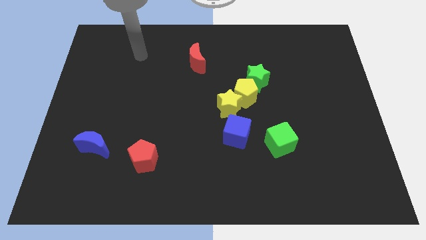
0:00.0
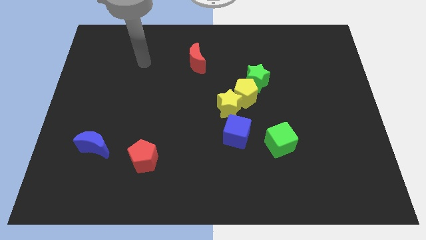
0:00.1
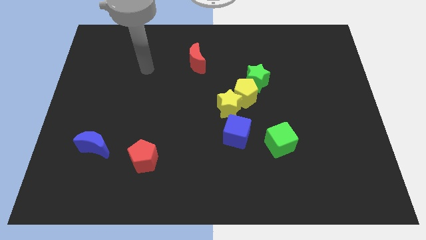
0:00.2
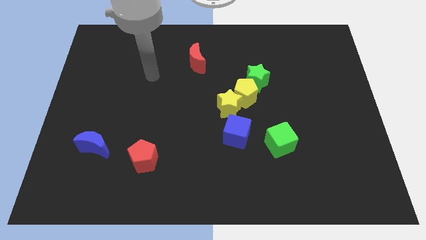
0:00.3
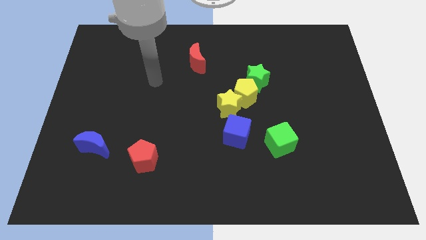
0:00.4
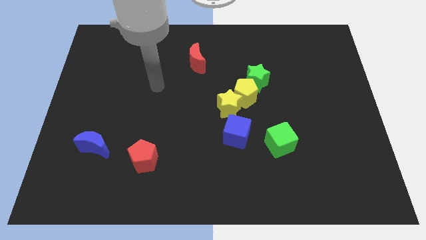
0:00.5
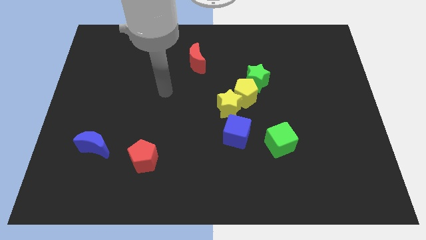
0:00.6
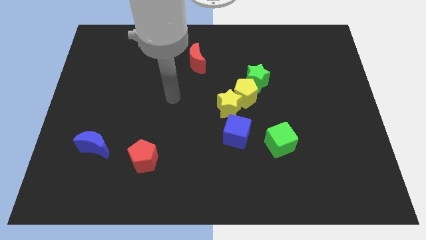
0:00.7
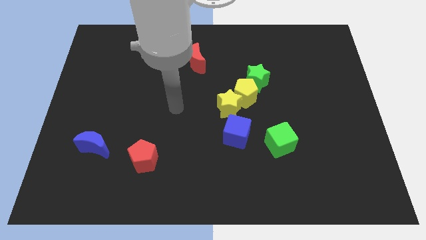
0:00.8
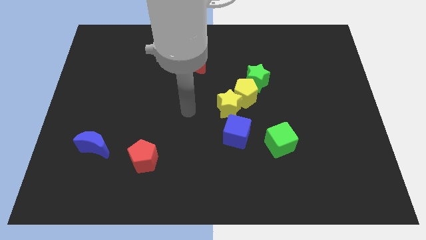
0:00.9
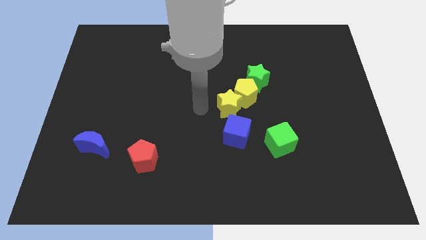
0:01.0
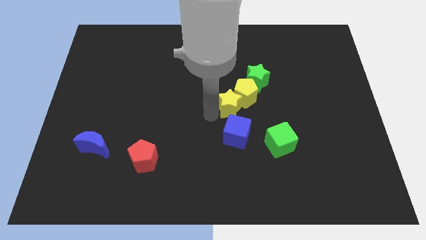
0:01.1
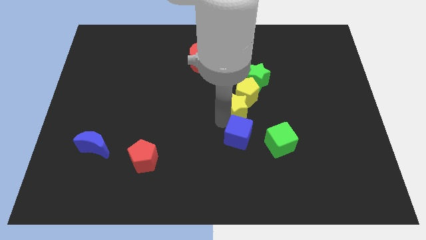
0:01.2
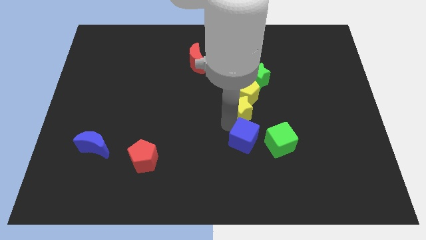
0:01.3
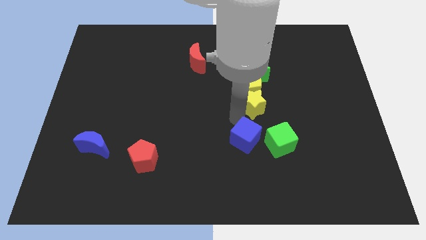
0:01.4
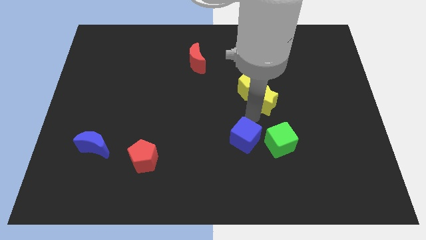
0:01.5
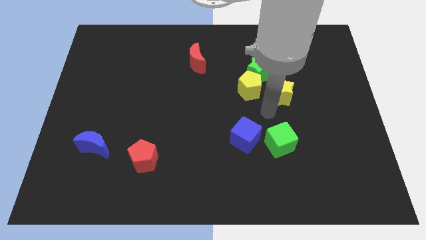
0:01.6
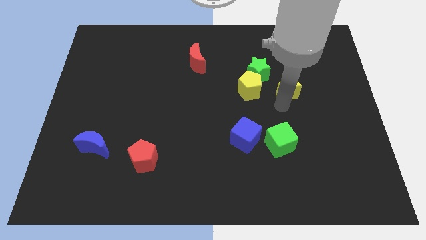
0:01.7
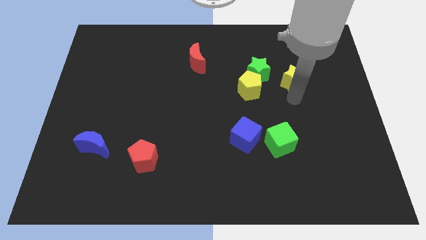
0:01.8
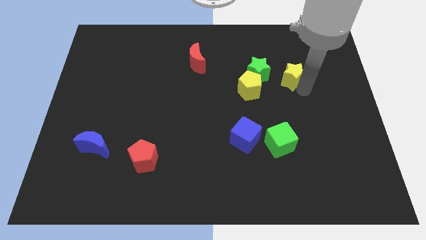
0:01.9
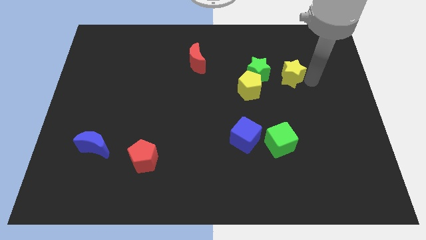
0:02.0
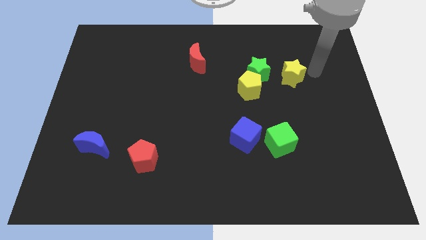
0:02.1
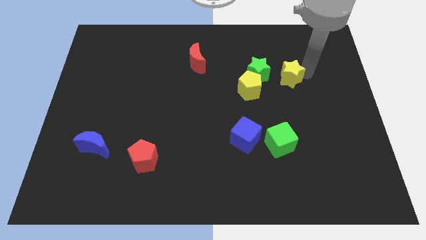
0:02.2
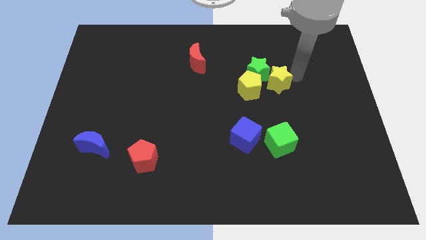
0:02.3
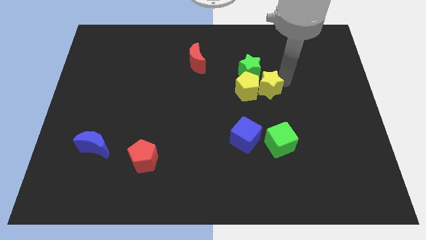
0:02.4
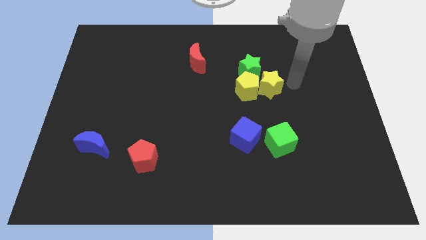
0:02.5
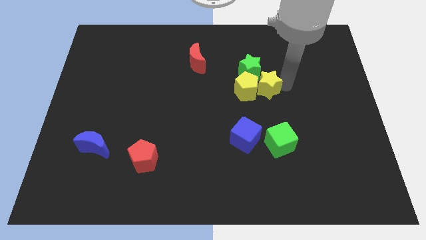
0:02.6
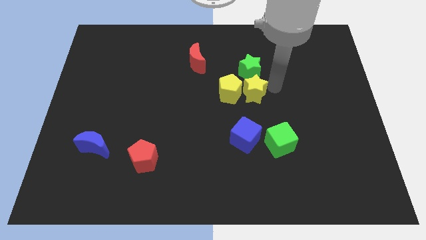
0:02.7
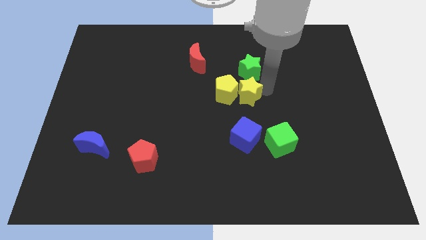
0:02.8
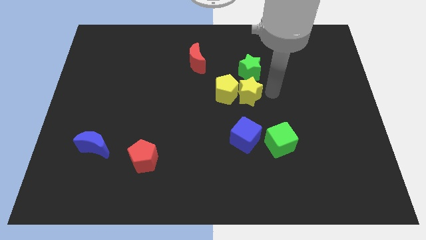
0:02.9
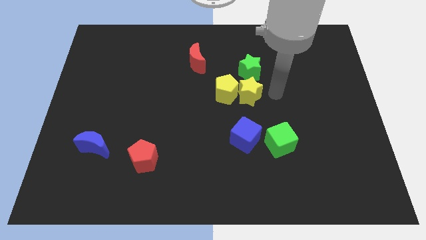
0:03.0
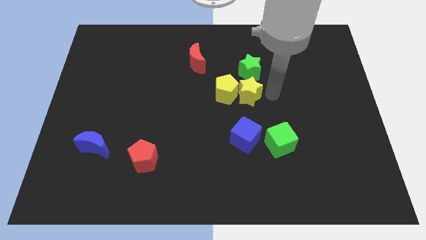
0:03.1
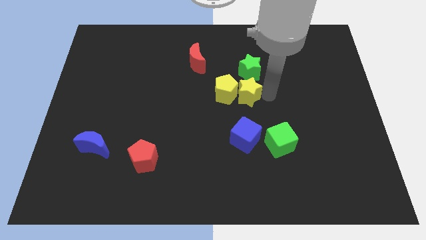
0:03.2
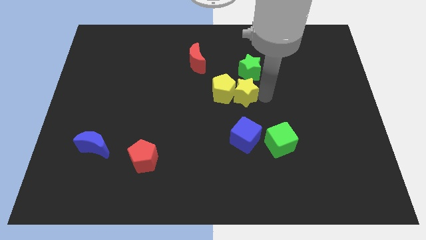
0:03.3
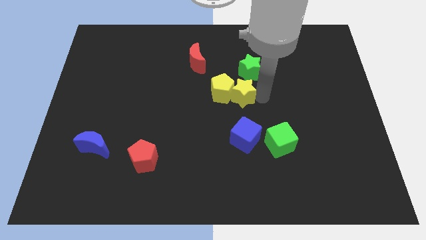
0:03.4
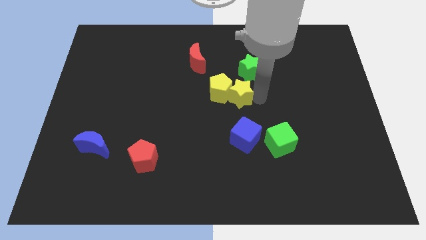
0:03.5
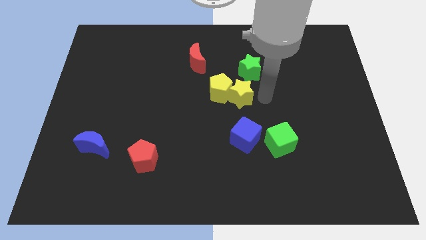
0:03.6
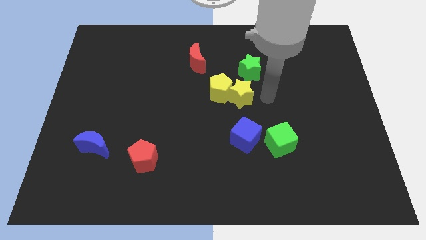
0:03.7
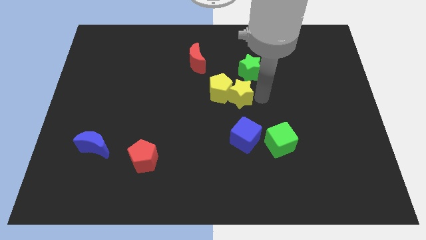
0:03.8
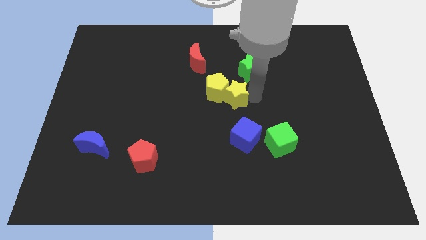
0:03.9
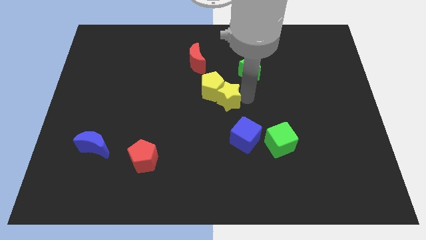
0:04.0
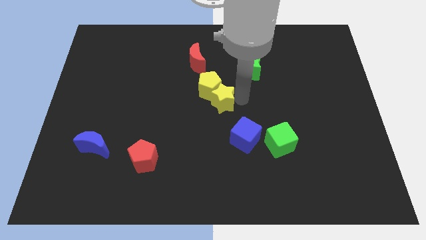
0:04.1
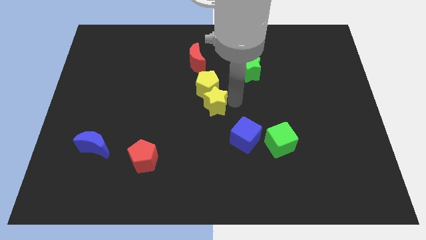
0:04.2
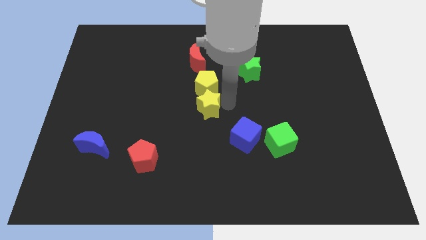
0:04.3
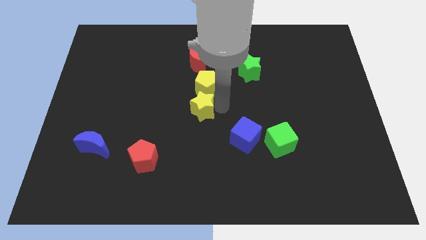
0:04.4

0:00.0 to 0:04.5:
put the yellow star below the red moon

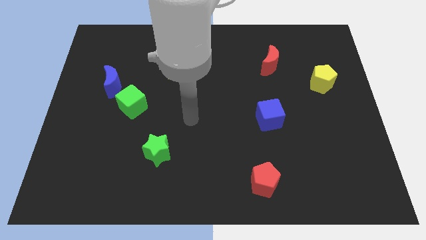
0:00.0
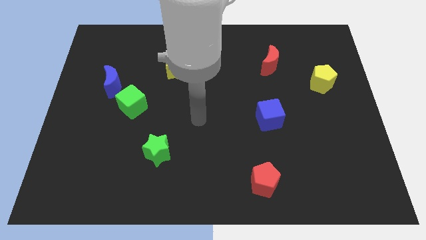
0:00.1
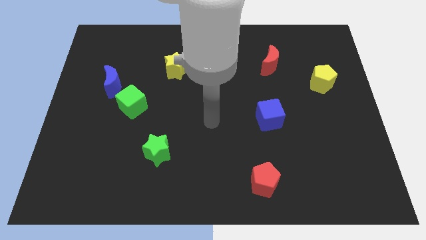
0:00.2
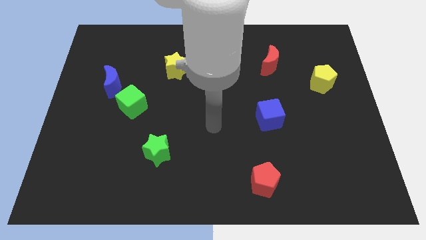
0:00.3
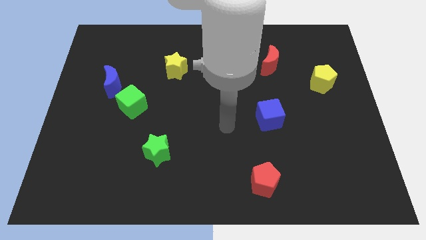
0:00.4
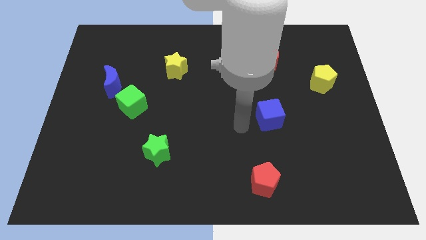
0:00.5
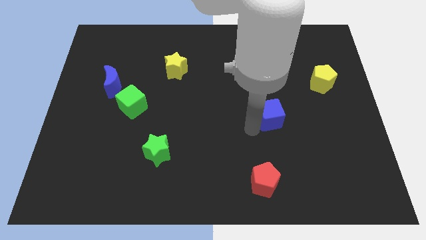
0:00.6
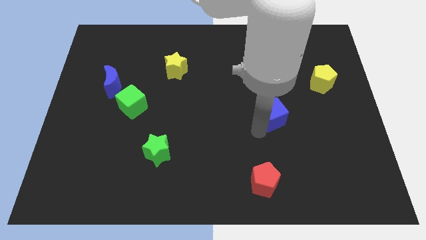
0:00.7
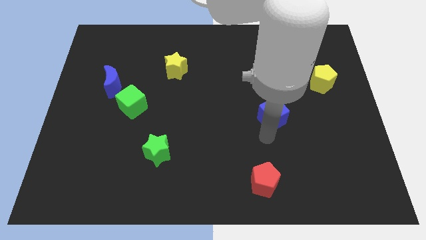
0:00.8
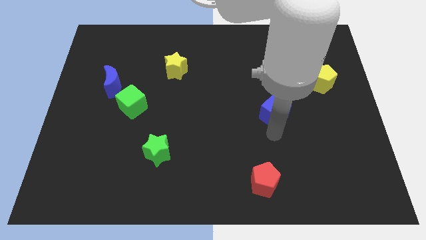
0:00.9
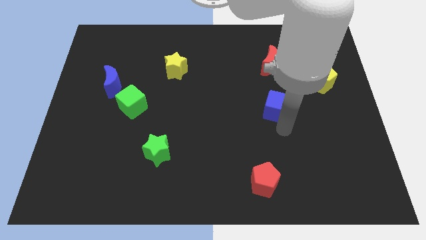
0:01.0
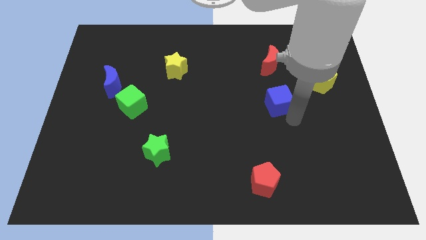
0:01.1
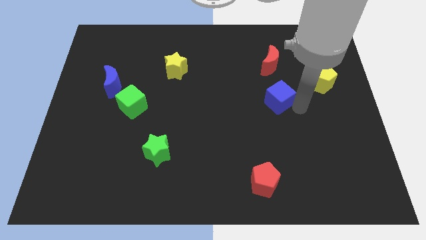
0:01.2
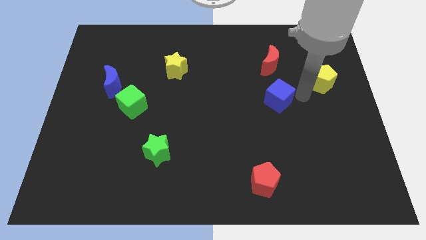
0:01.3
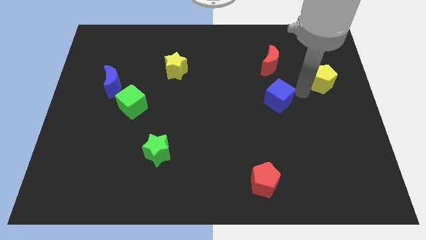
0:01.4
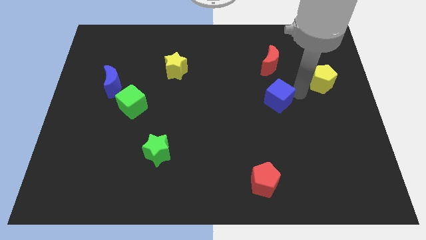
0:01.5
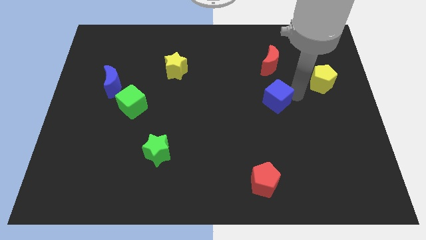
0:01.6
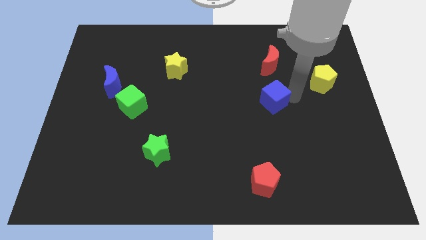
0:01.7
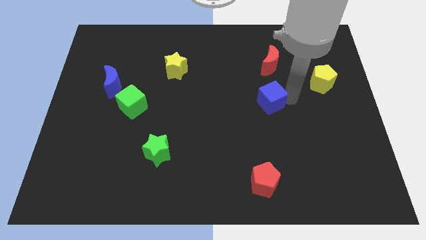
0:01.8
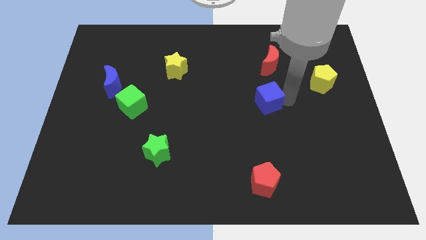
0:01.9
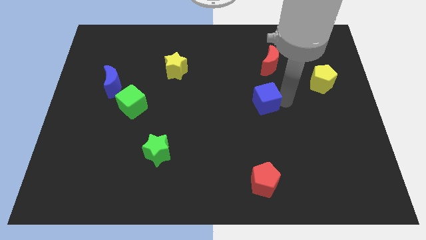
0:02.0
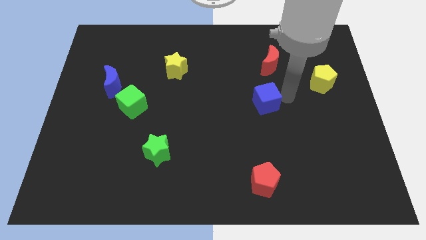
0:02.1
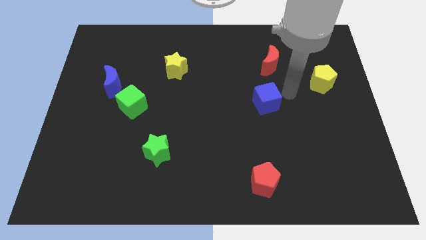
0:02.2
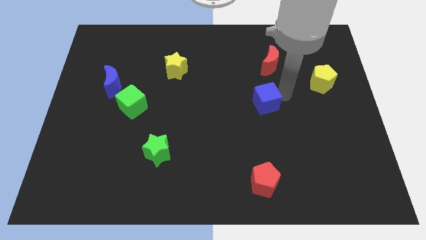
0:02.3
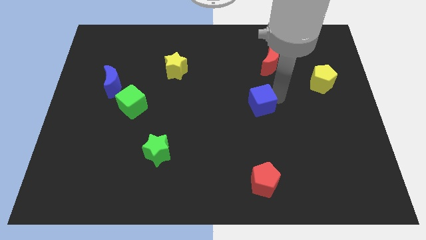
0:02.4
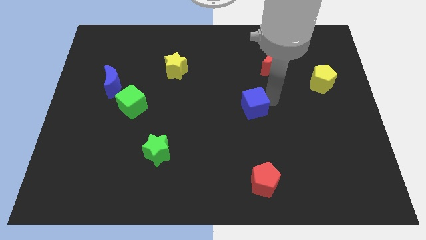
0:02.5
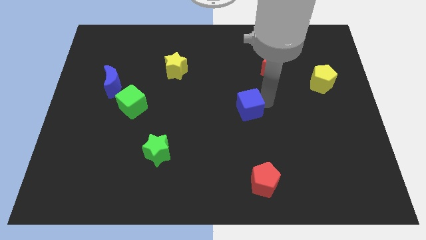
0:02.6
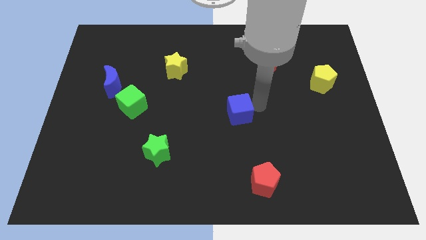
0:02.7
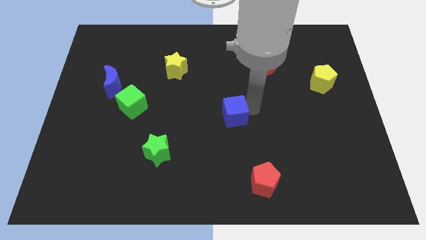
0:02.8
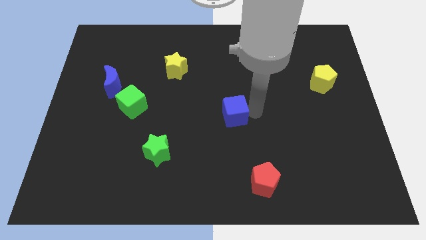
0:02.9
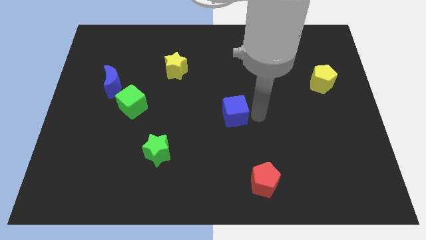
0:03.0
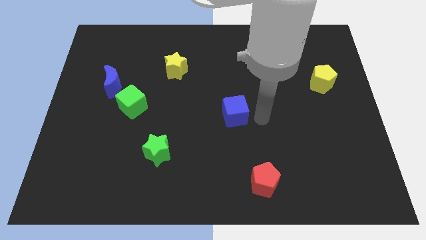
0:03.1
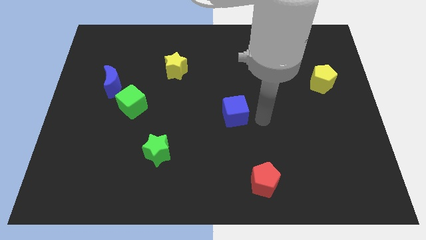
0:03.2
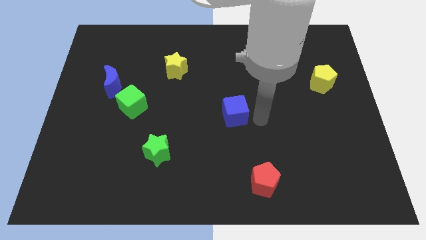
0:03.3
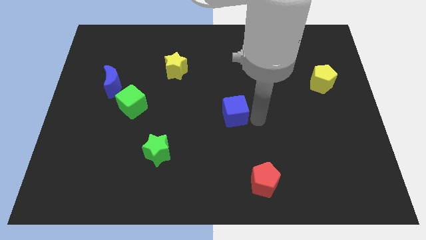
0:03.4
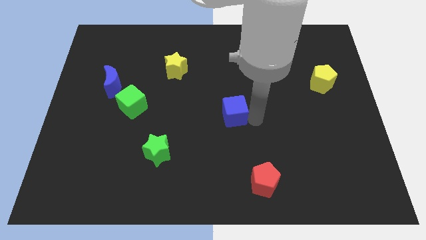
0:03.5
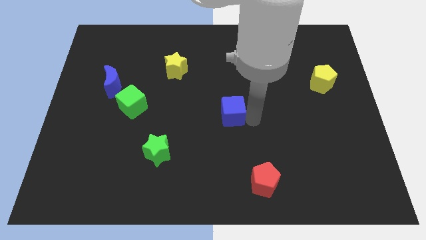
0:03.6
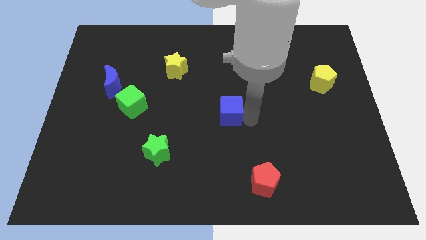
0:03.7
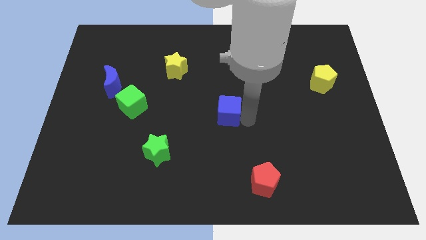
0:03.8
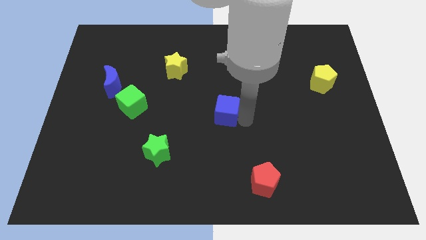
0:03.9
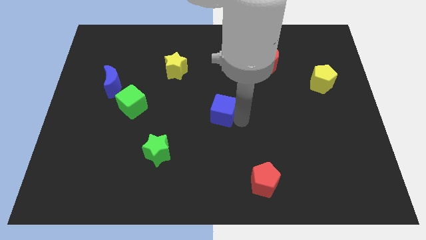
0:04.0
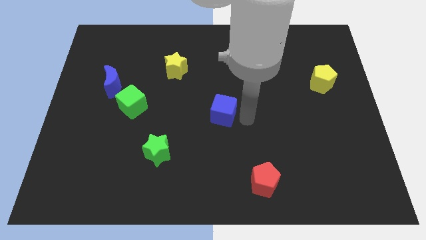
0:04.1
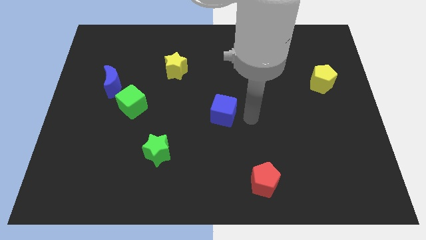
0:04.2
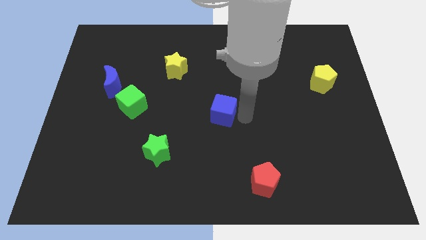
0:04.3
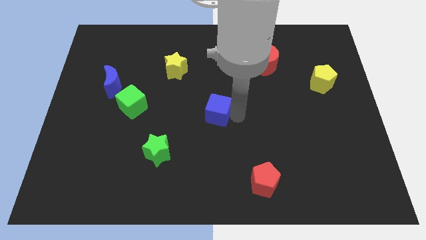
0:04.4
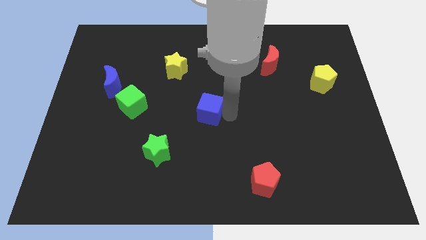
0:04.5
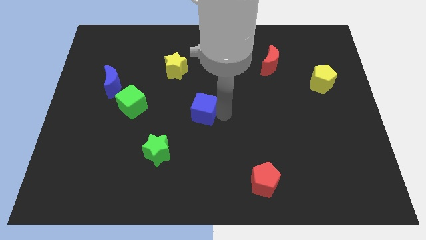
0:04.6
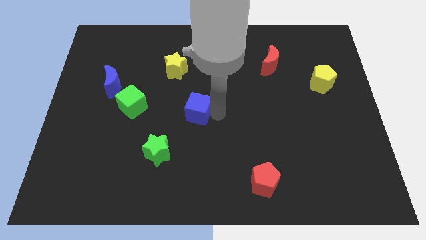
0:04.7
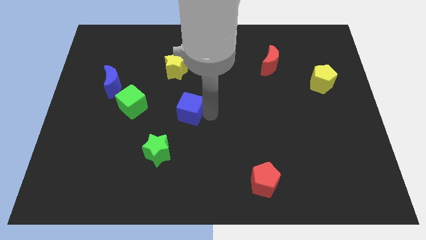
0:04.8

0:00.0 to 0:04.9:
move the blue cube below the yellow star
